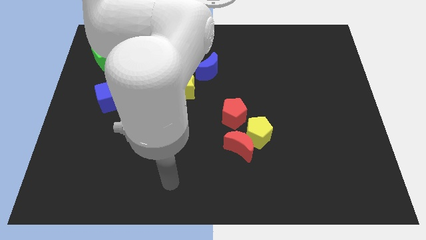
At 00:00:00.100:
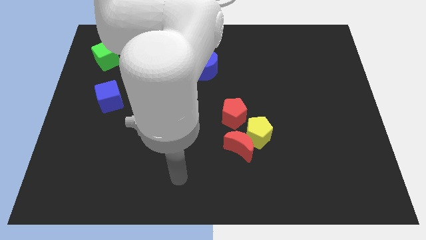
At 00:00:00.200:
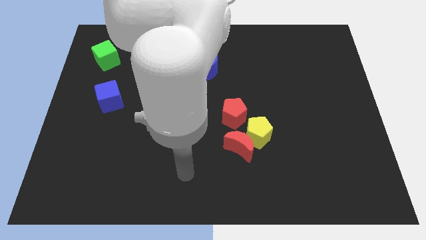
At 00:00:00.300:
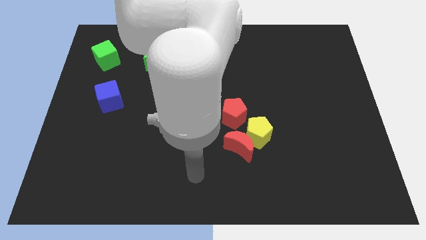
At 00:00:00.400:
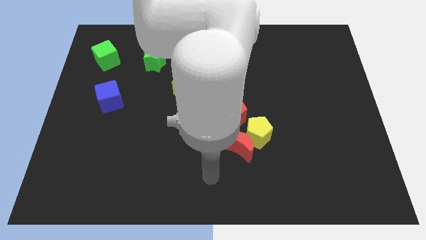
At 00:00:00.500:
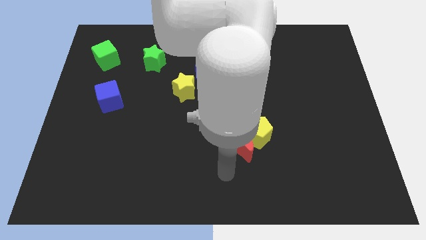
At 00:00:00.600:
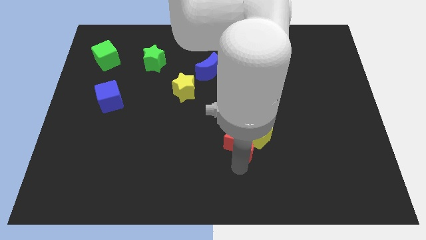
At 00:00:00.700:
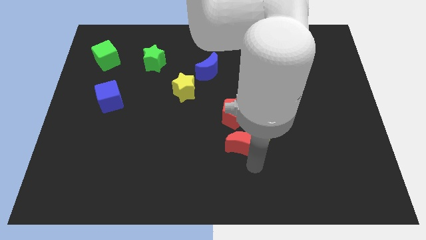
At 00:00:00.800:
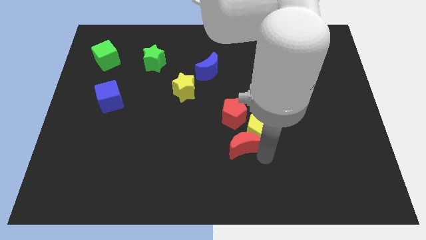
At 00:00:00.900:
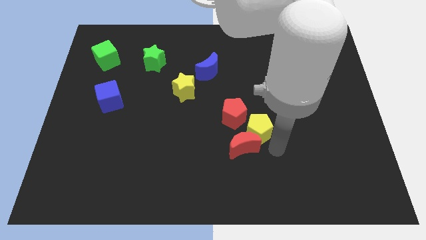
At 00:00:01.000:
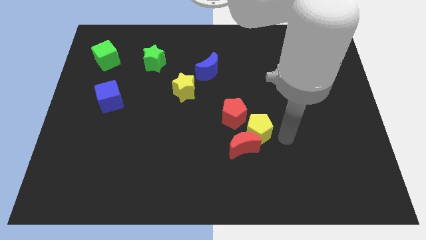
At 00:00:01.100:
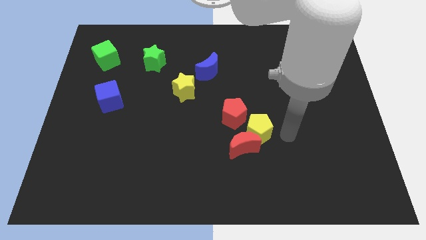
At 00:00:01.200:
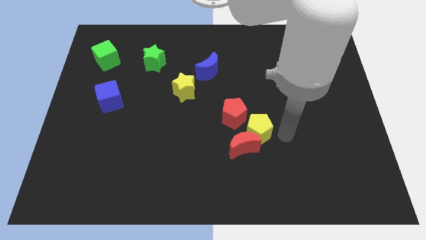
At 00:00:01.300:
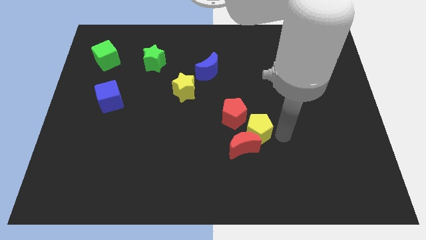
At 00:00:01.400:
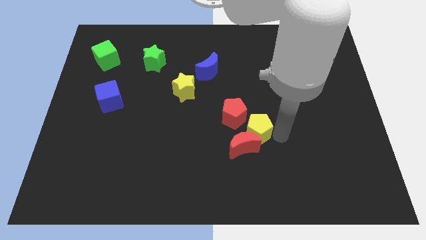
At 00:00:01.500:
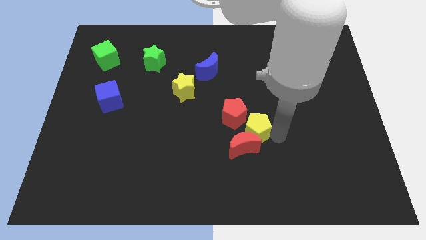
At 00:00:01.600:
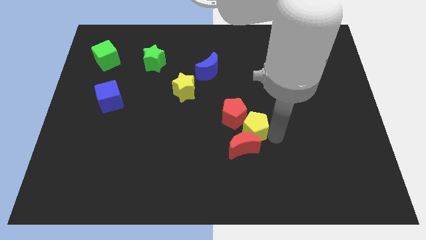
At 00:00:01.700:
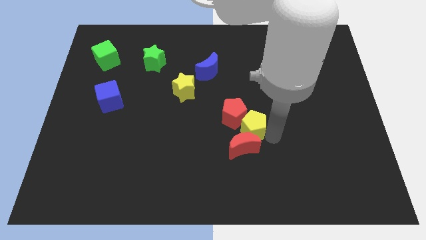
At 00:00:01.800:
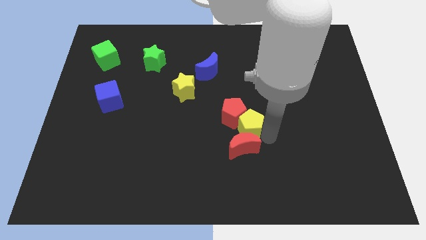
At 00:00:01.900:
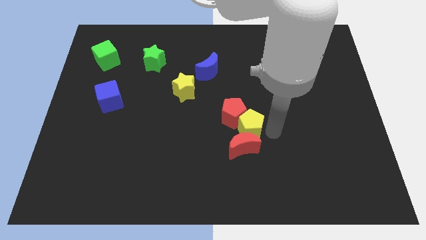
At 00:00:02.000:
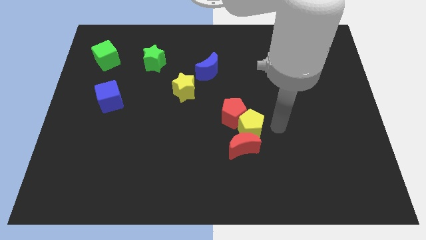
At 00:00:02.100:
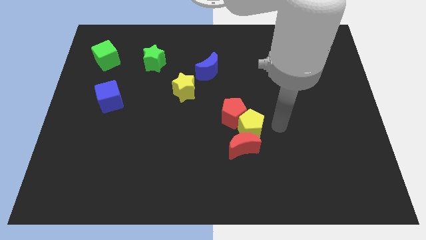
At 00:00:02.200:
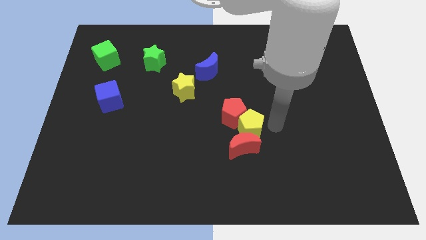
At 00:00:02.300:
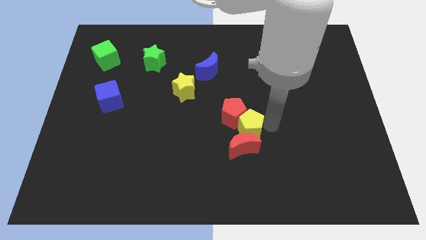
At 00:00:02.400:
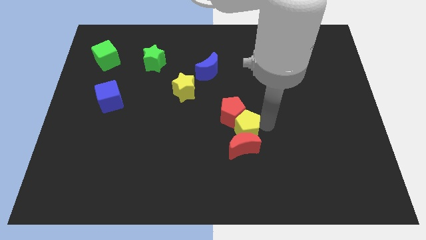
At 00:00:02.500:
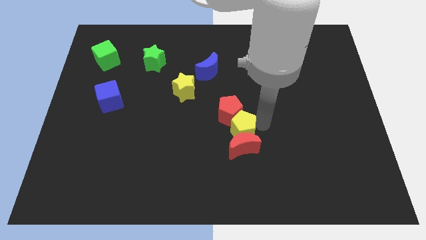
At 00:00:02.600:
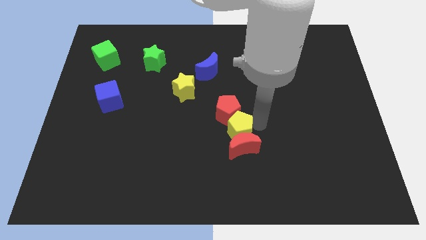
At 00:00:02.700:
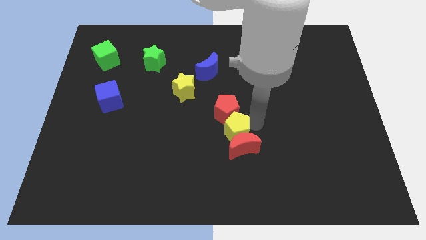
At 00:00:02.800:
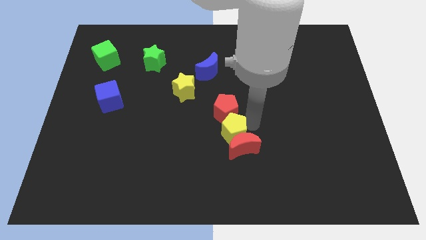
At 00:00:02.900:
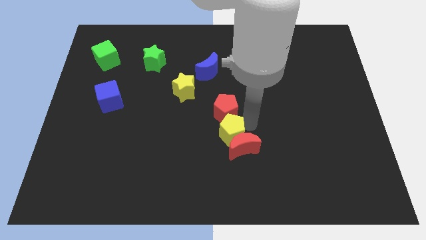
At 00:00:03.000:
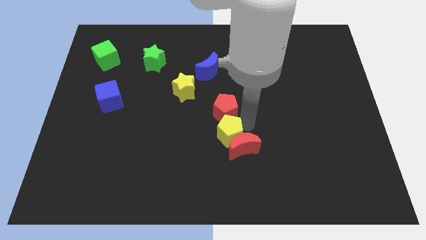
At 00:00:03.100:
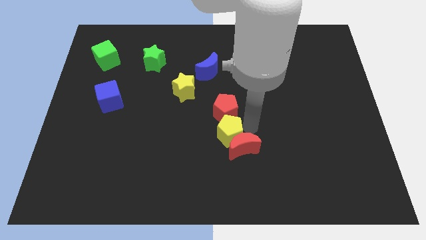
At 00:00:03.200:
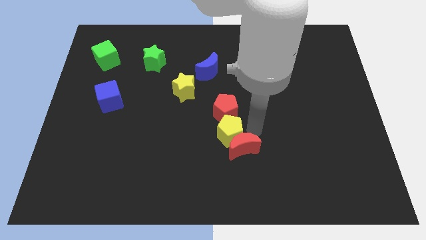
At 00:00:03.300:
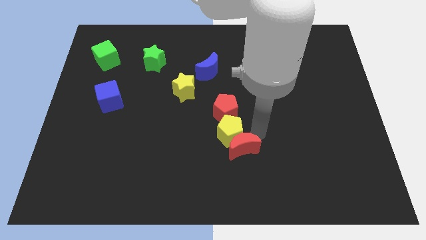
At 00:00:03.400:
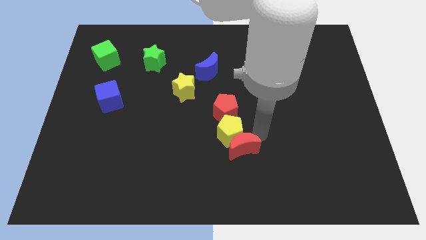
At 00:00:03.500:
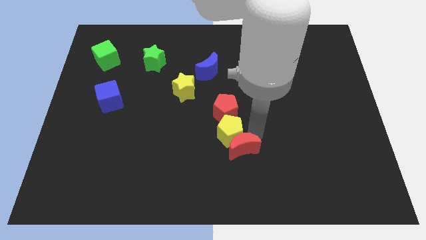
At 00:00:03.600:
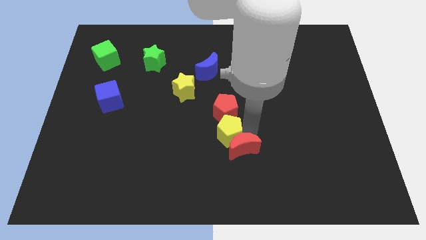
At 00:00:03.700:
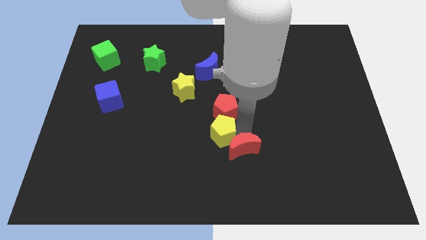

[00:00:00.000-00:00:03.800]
push the yellow pentagon somewhat to the left

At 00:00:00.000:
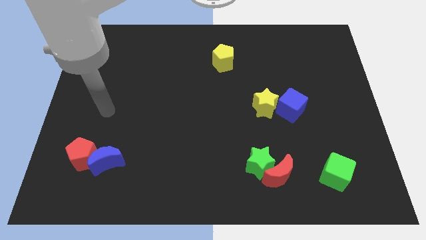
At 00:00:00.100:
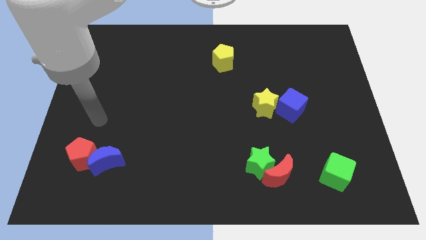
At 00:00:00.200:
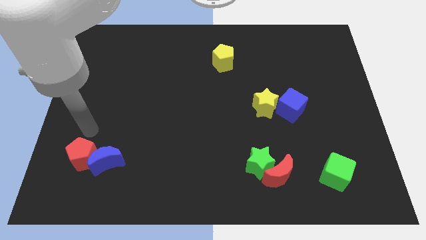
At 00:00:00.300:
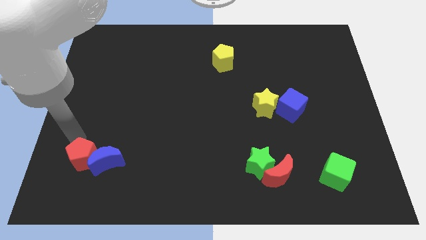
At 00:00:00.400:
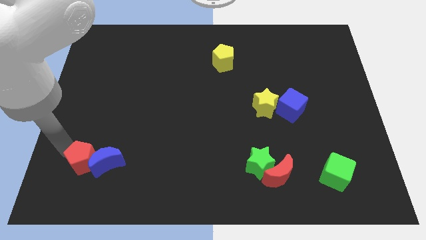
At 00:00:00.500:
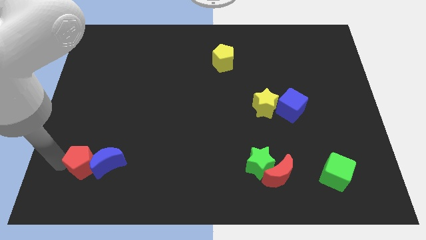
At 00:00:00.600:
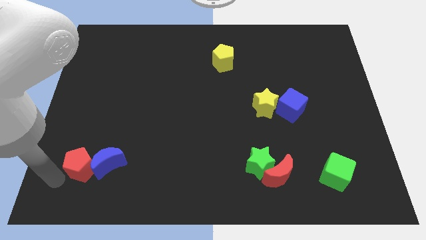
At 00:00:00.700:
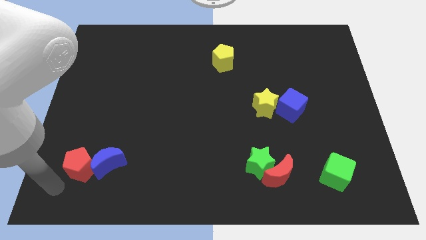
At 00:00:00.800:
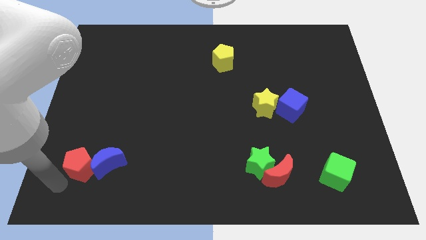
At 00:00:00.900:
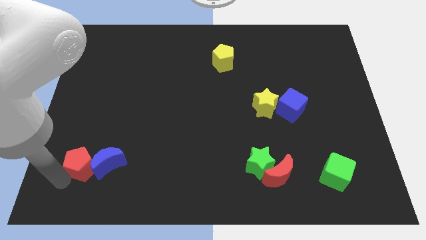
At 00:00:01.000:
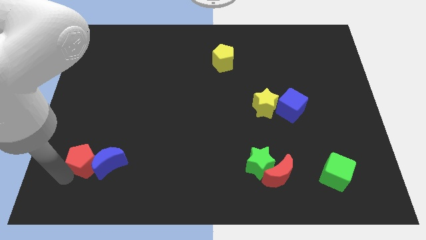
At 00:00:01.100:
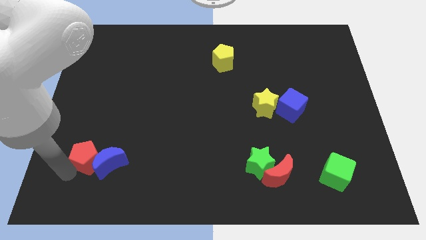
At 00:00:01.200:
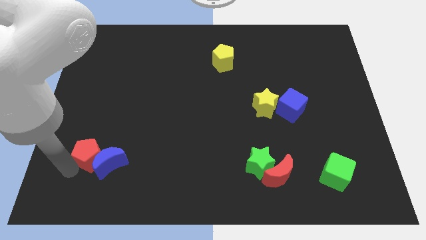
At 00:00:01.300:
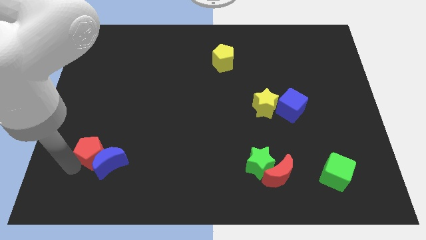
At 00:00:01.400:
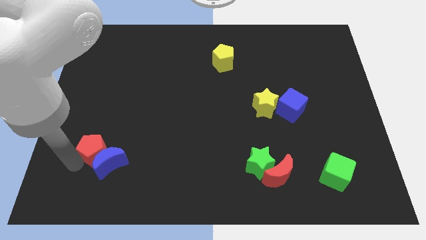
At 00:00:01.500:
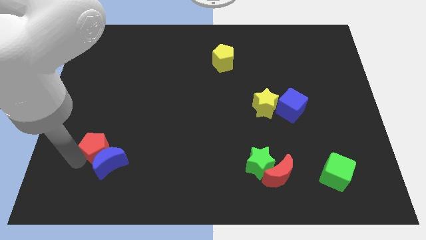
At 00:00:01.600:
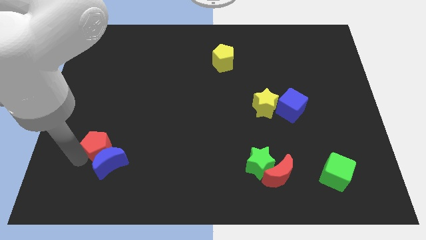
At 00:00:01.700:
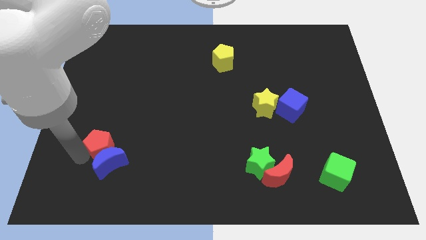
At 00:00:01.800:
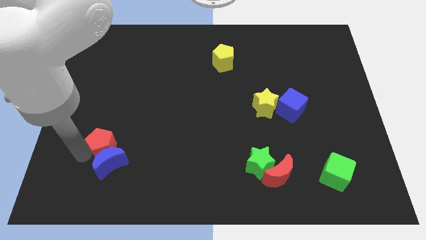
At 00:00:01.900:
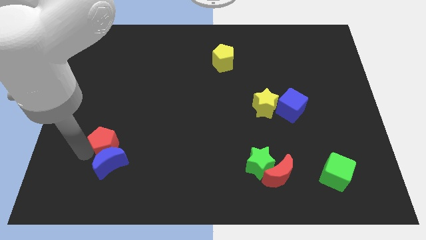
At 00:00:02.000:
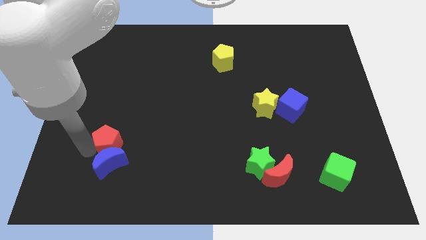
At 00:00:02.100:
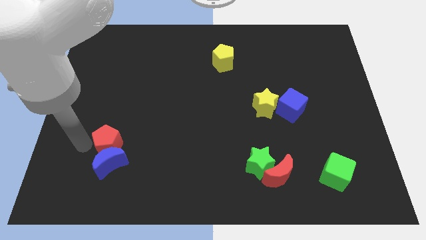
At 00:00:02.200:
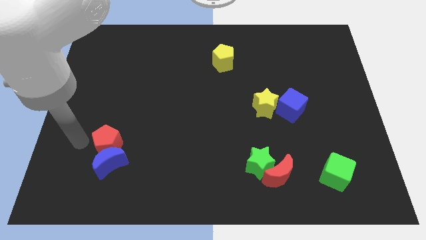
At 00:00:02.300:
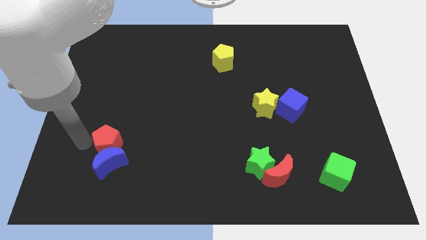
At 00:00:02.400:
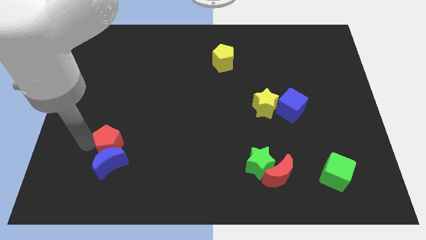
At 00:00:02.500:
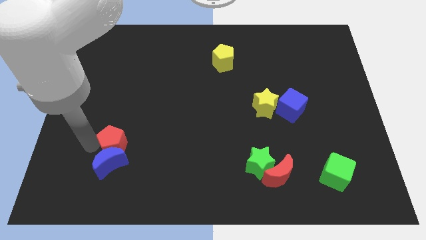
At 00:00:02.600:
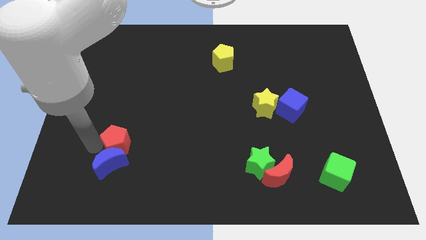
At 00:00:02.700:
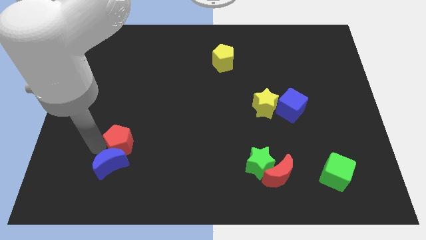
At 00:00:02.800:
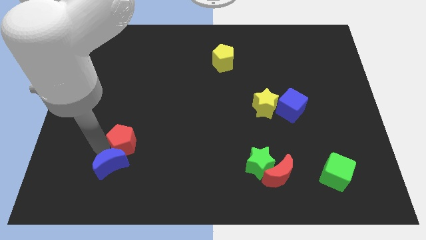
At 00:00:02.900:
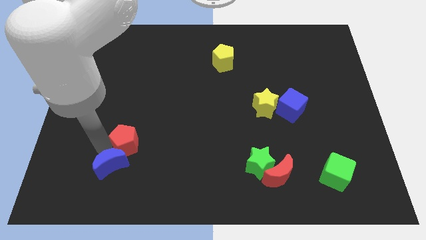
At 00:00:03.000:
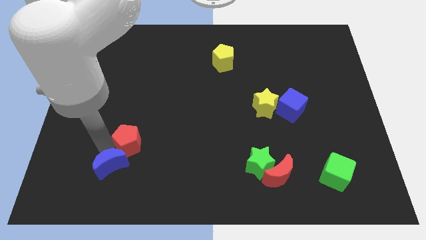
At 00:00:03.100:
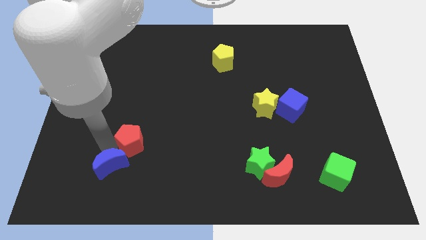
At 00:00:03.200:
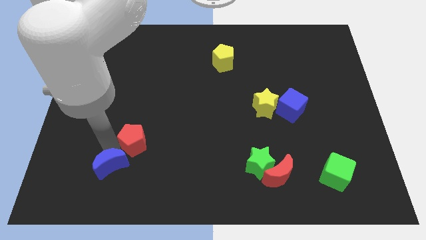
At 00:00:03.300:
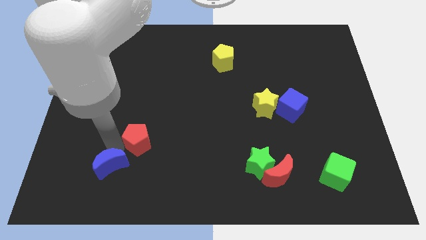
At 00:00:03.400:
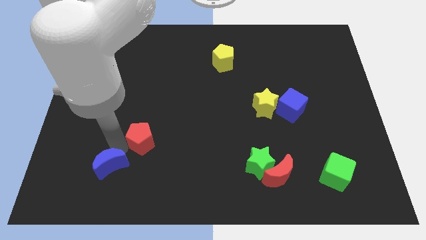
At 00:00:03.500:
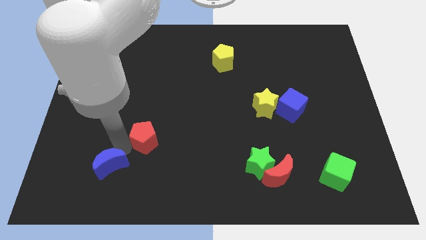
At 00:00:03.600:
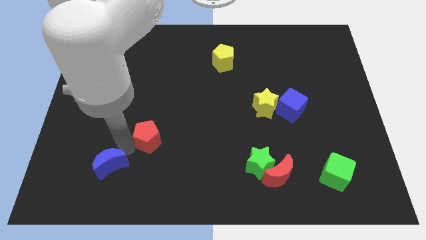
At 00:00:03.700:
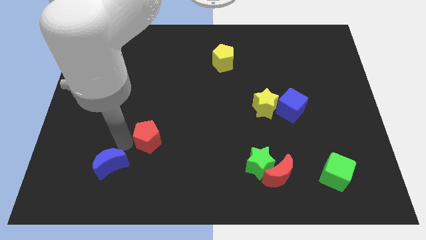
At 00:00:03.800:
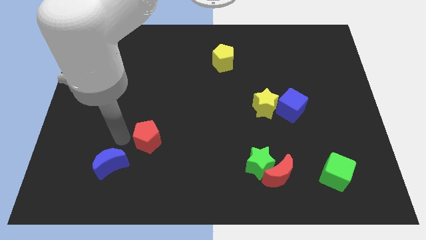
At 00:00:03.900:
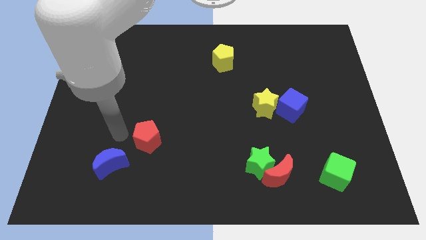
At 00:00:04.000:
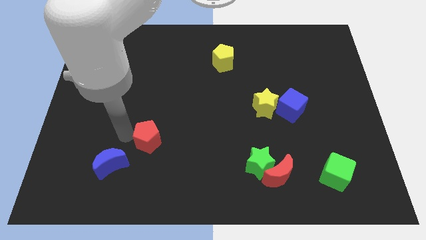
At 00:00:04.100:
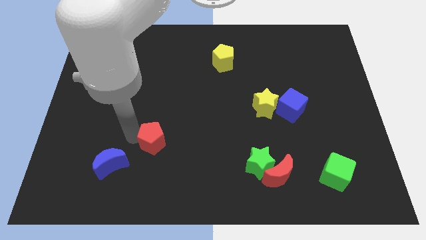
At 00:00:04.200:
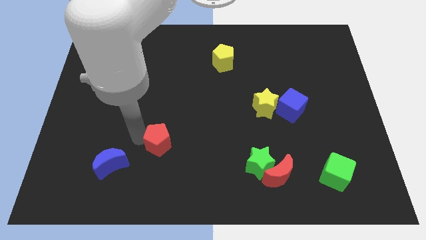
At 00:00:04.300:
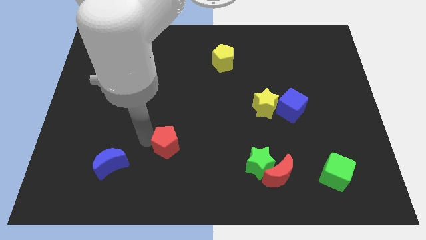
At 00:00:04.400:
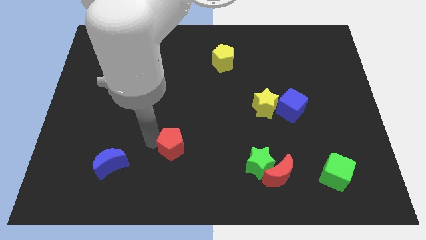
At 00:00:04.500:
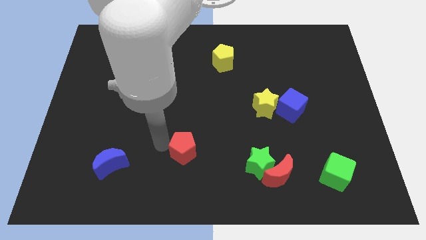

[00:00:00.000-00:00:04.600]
move the red pentagon right
